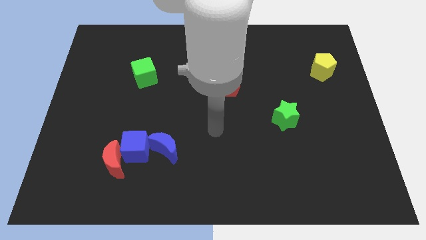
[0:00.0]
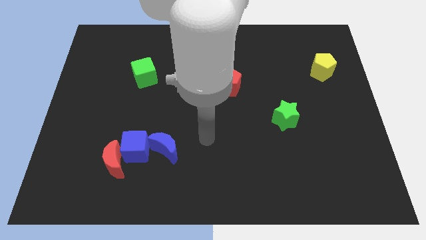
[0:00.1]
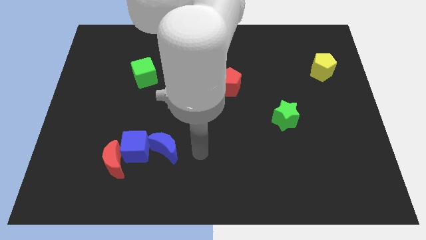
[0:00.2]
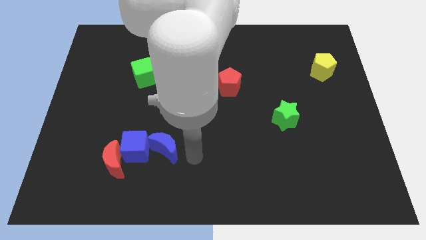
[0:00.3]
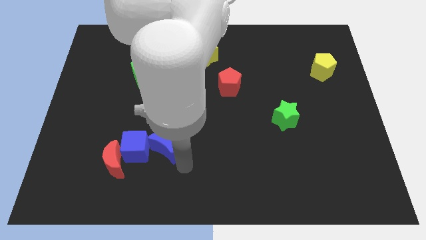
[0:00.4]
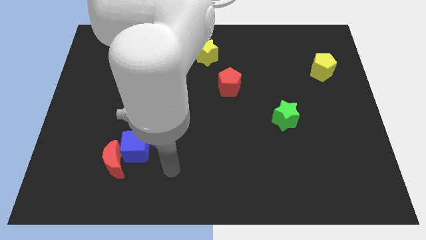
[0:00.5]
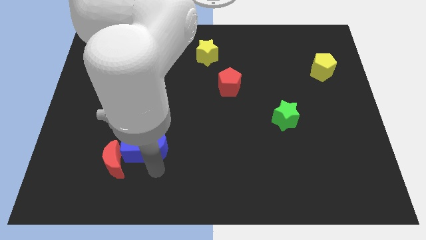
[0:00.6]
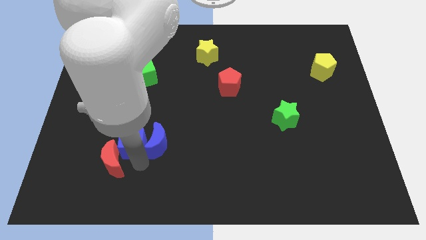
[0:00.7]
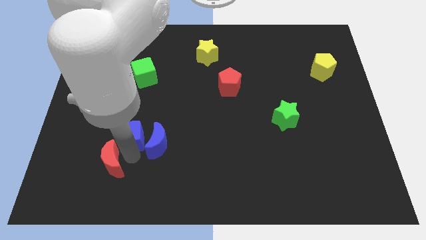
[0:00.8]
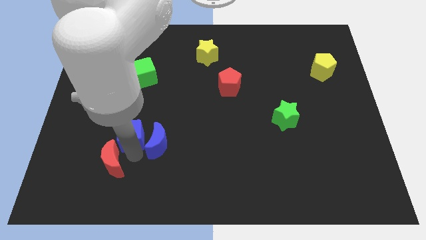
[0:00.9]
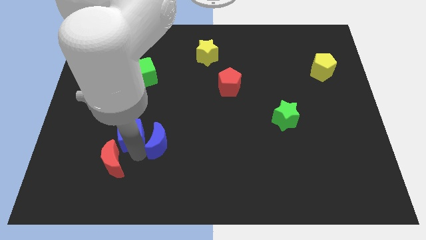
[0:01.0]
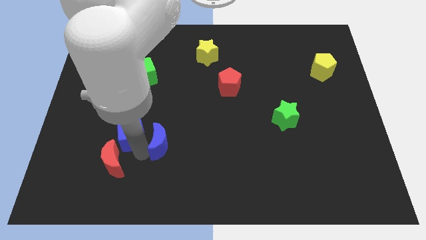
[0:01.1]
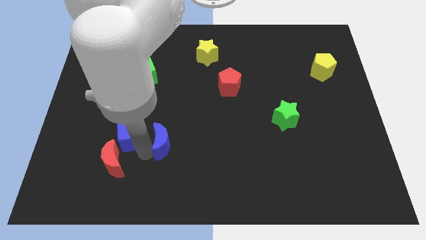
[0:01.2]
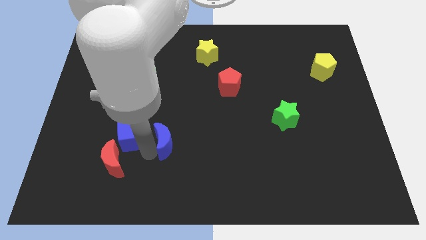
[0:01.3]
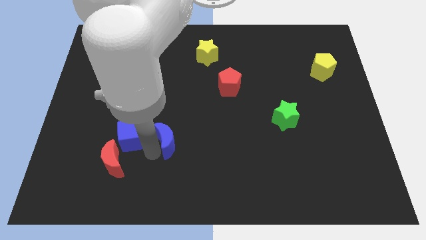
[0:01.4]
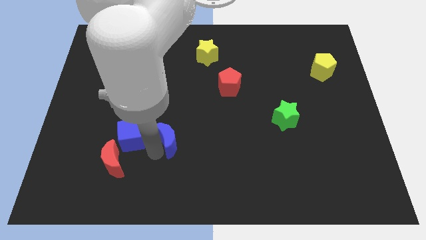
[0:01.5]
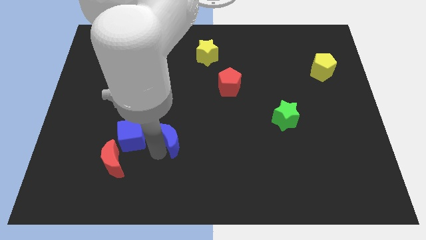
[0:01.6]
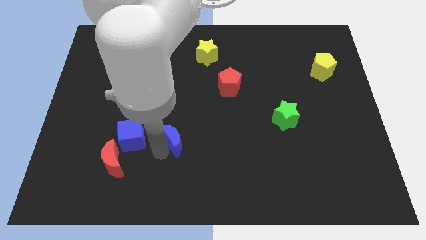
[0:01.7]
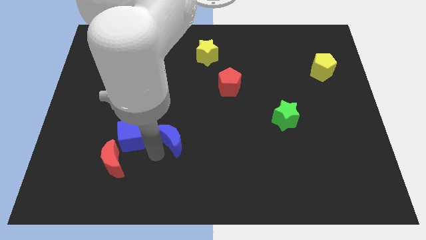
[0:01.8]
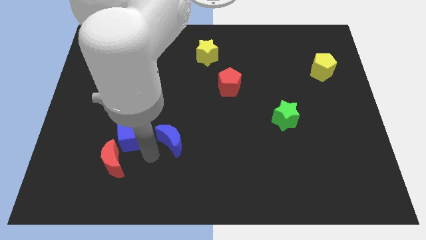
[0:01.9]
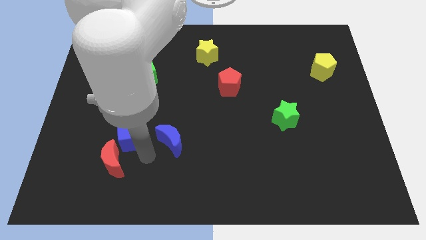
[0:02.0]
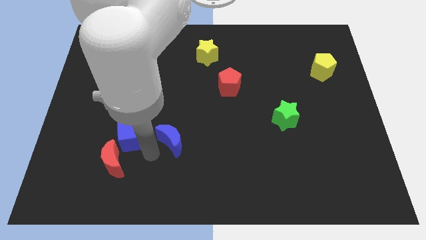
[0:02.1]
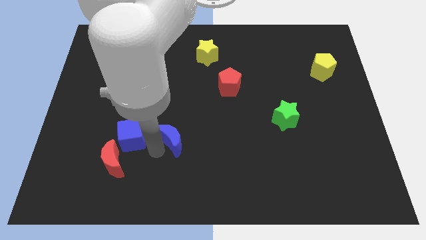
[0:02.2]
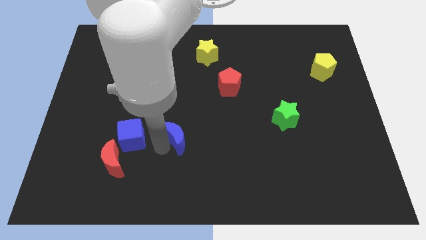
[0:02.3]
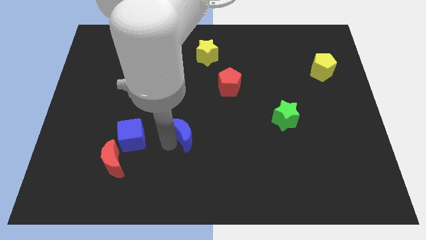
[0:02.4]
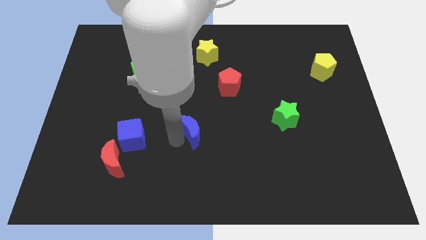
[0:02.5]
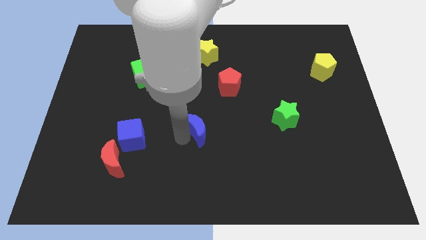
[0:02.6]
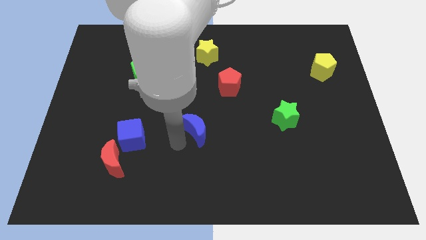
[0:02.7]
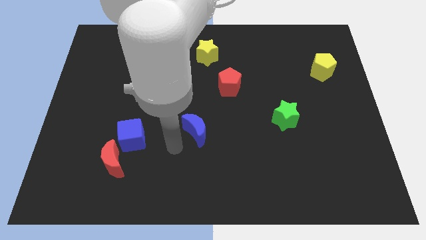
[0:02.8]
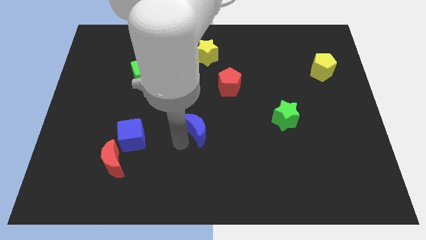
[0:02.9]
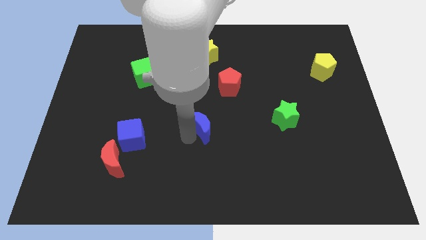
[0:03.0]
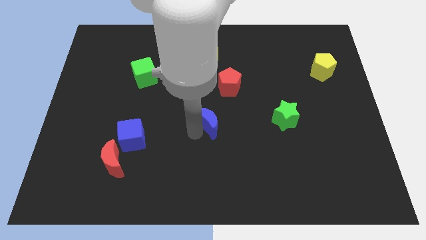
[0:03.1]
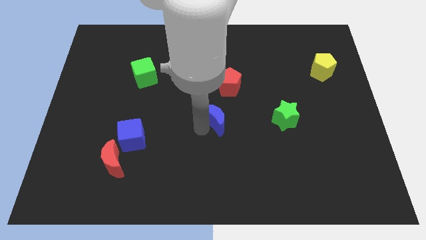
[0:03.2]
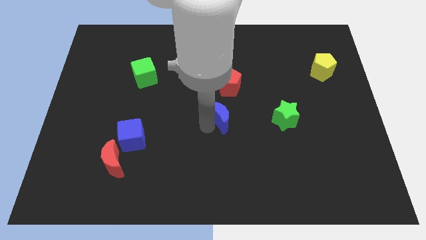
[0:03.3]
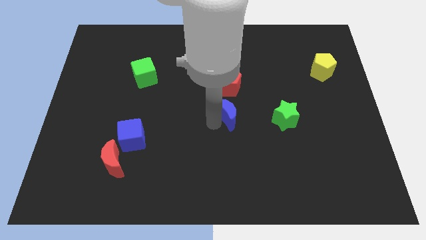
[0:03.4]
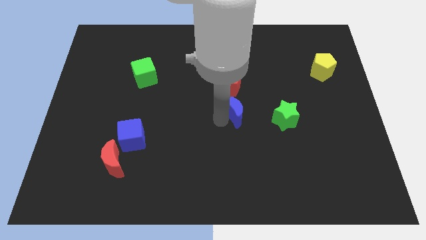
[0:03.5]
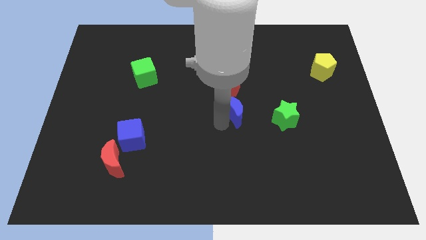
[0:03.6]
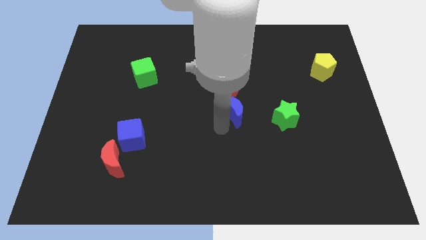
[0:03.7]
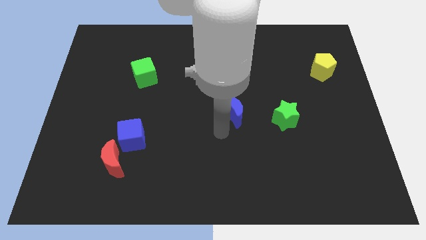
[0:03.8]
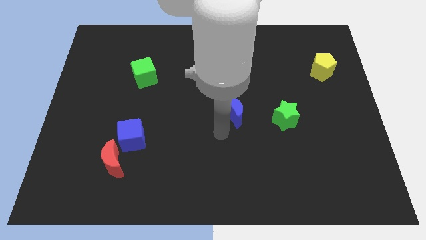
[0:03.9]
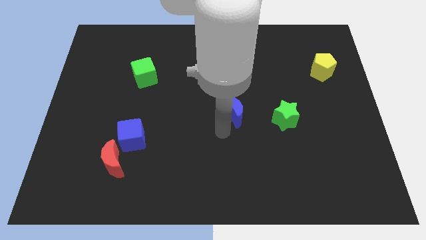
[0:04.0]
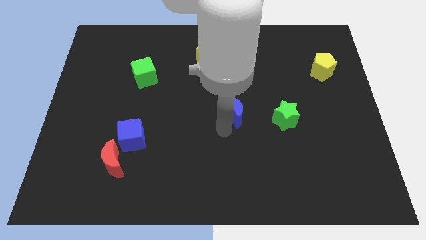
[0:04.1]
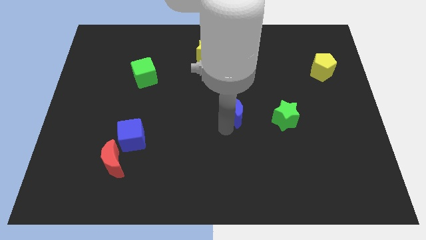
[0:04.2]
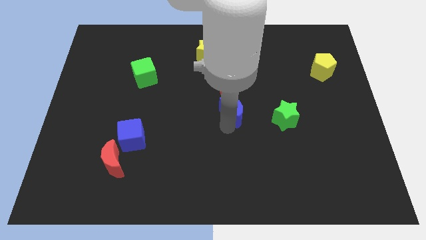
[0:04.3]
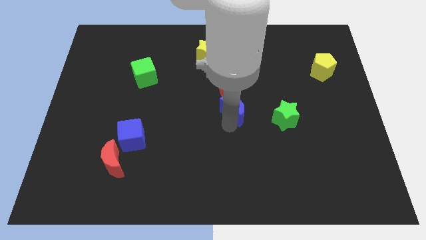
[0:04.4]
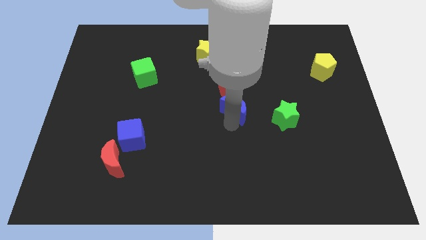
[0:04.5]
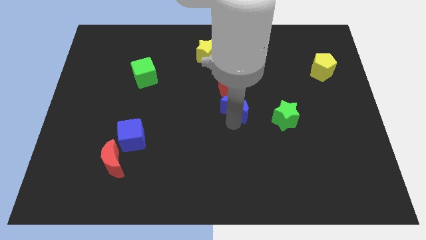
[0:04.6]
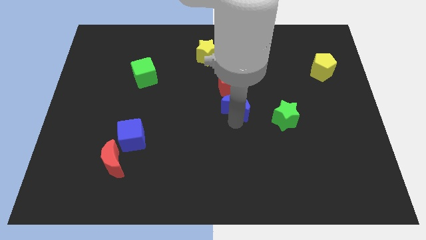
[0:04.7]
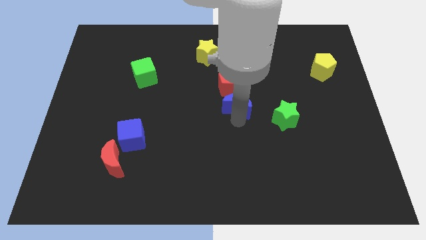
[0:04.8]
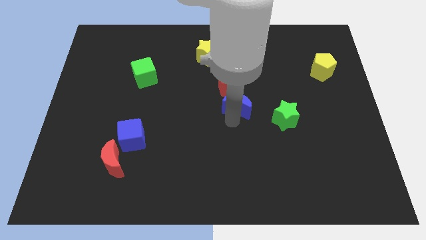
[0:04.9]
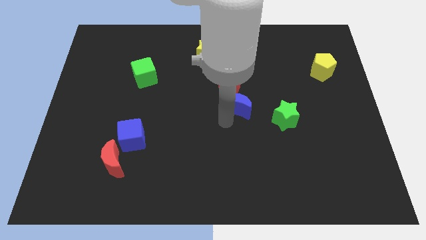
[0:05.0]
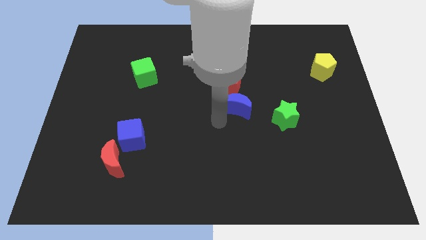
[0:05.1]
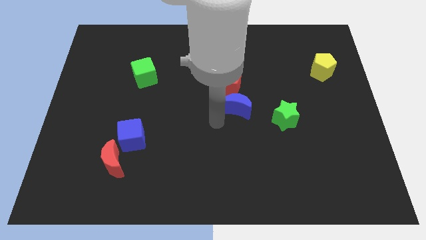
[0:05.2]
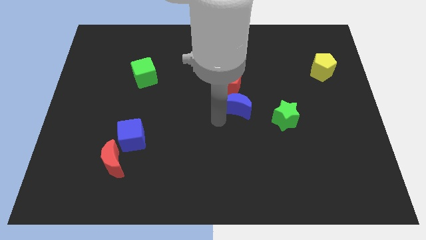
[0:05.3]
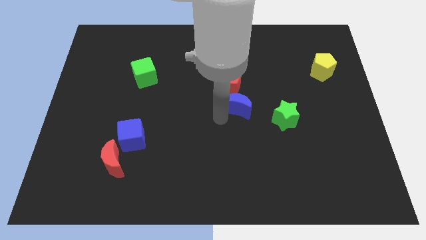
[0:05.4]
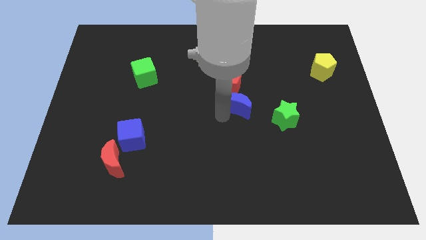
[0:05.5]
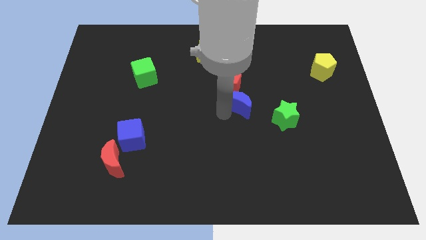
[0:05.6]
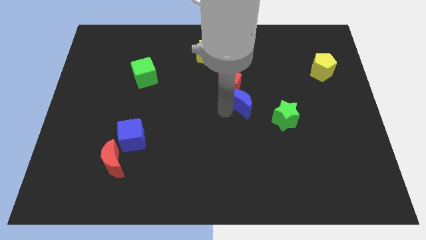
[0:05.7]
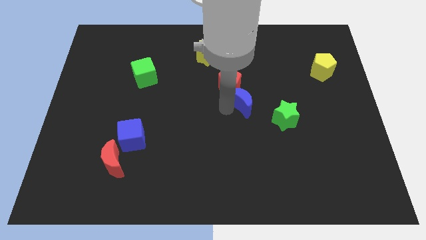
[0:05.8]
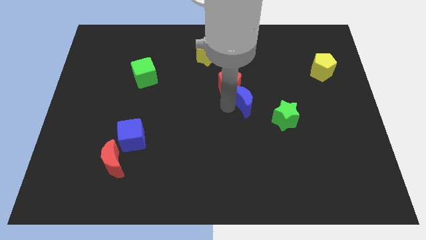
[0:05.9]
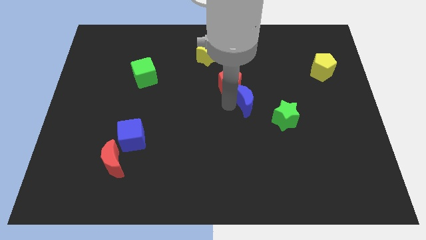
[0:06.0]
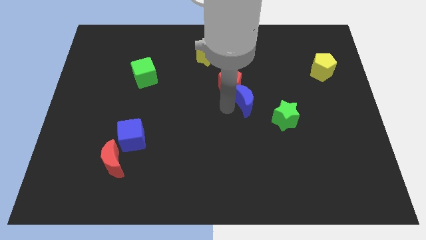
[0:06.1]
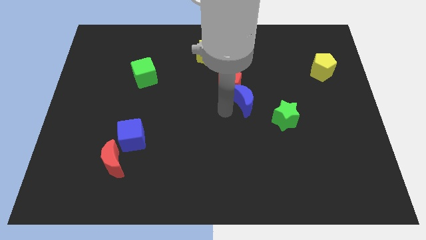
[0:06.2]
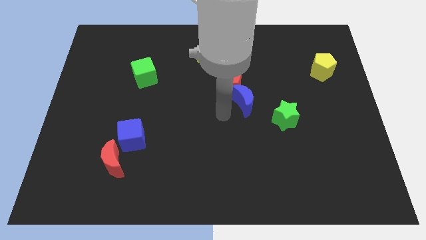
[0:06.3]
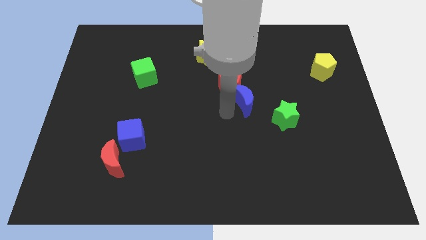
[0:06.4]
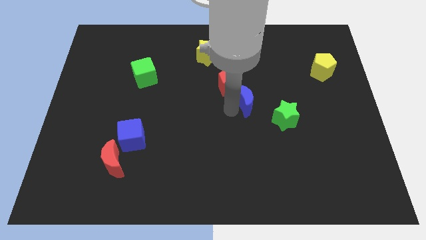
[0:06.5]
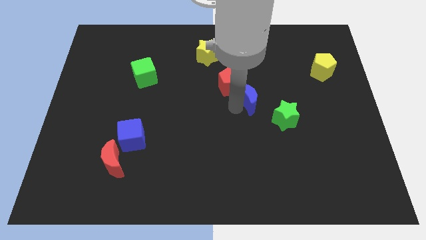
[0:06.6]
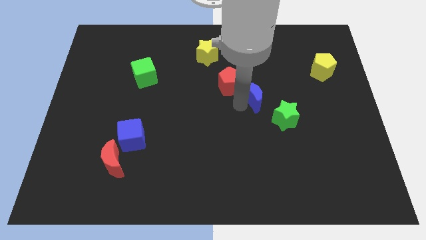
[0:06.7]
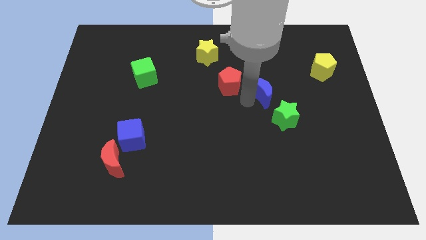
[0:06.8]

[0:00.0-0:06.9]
slide the blue moon to the top side of the green star

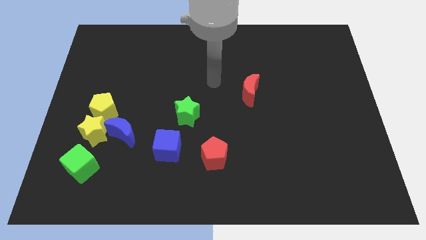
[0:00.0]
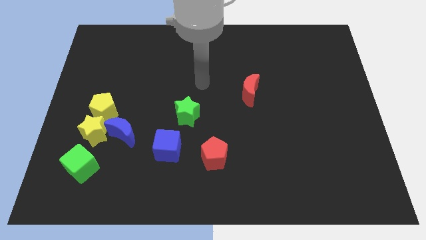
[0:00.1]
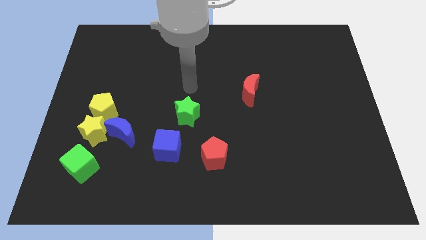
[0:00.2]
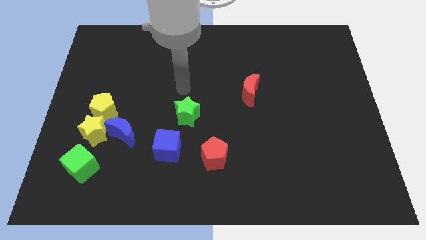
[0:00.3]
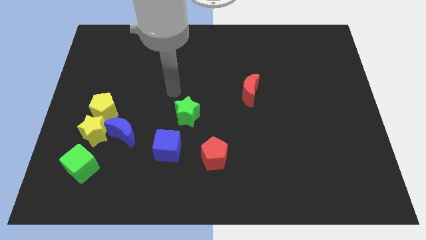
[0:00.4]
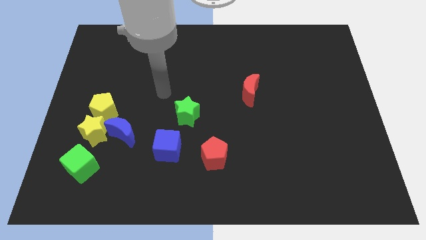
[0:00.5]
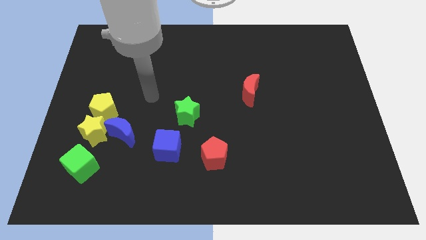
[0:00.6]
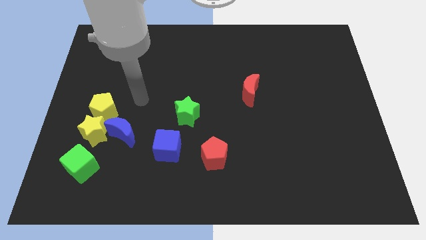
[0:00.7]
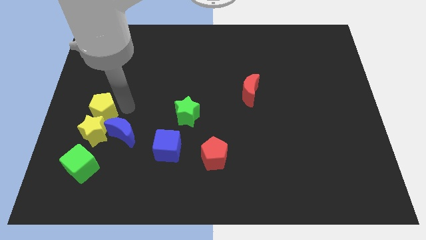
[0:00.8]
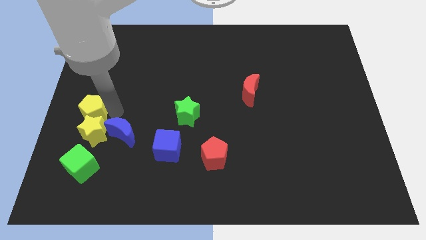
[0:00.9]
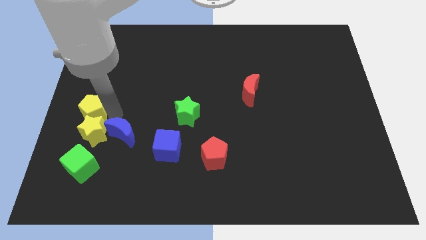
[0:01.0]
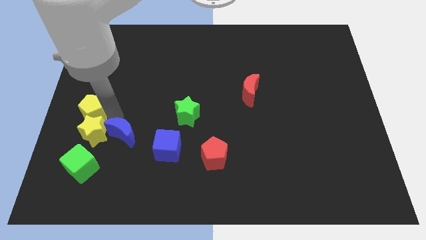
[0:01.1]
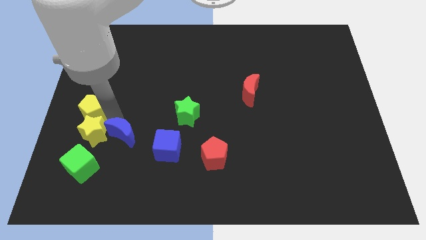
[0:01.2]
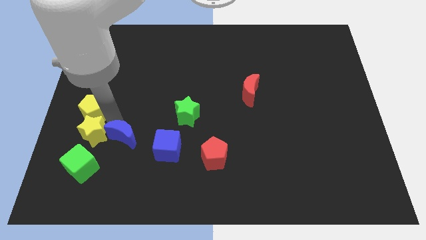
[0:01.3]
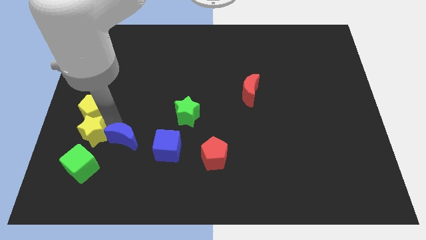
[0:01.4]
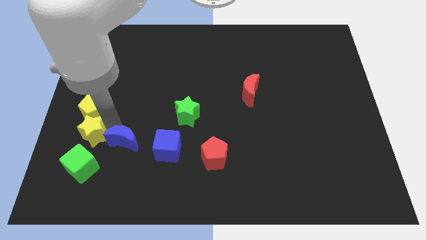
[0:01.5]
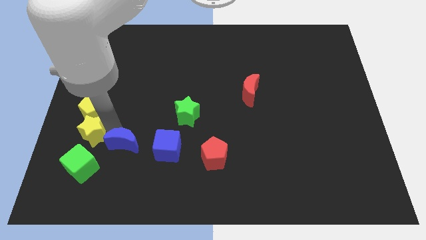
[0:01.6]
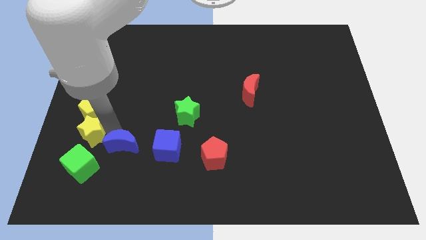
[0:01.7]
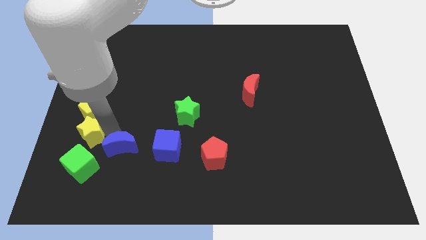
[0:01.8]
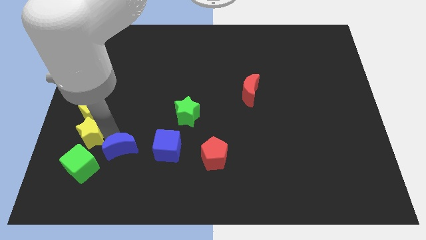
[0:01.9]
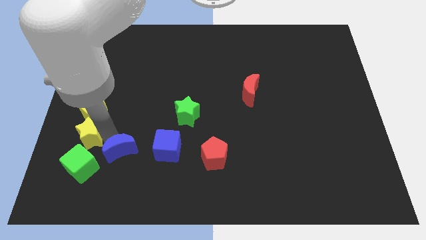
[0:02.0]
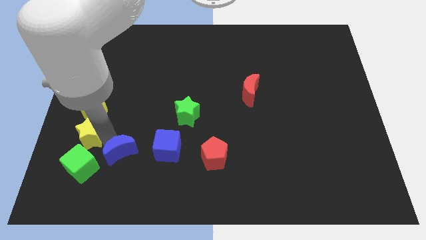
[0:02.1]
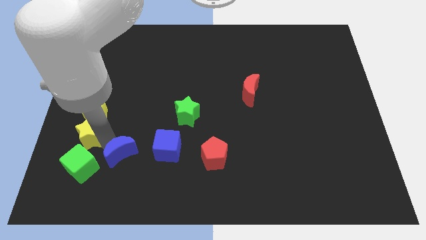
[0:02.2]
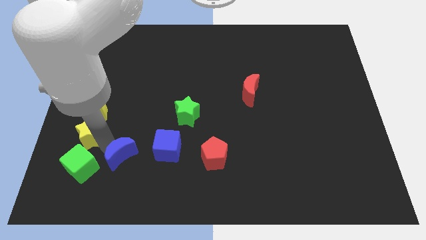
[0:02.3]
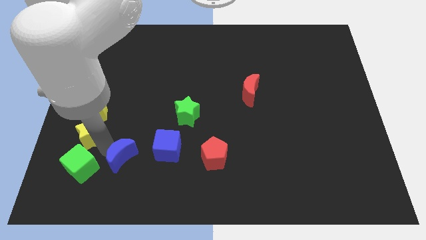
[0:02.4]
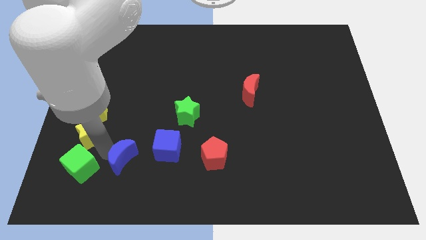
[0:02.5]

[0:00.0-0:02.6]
move the blue moon diagonally down and to the left of the blue cube
